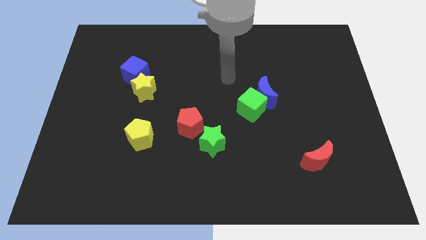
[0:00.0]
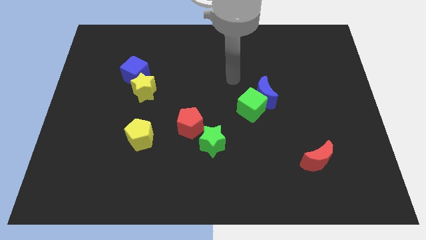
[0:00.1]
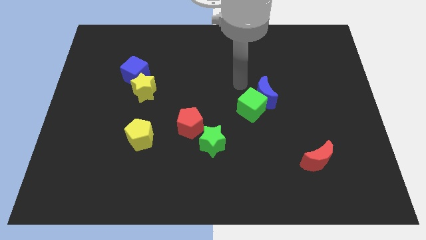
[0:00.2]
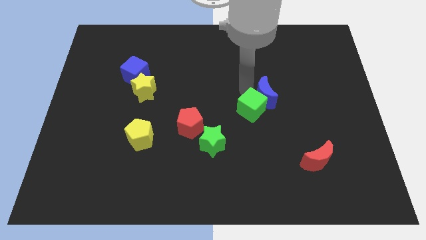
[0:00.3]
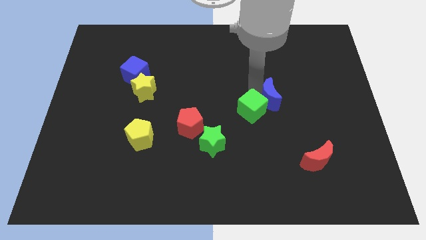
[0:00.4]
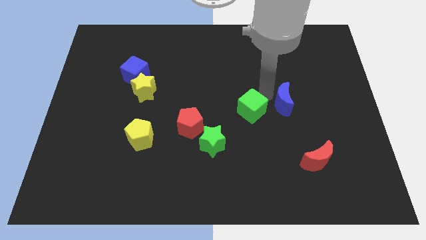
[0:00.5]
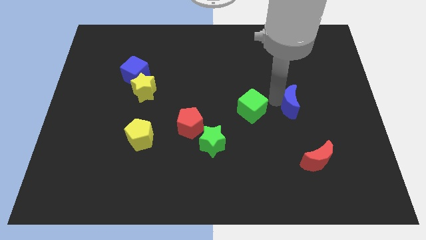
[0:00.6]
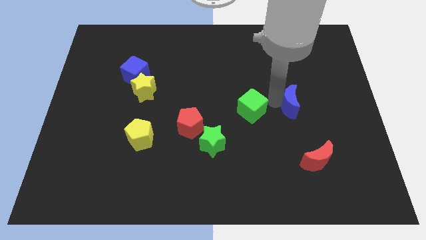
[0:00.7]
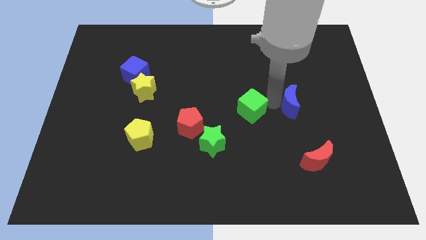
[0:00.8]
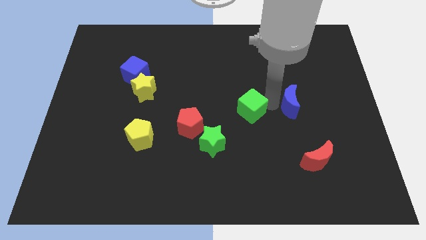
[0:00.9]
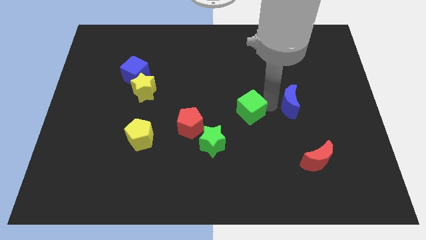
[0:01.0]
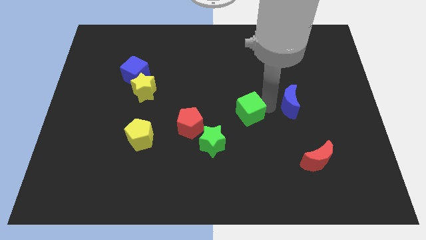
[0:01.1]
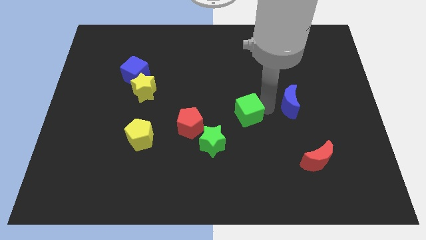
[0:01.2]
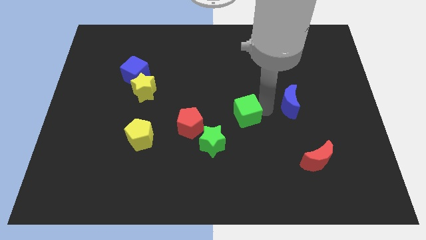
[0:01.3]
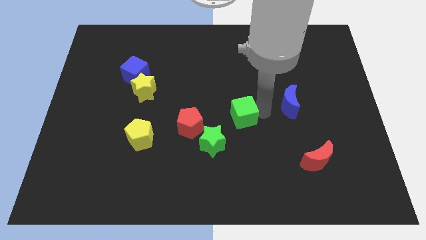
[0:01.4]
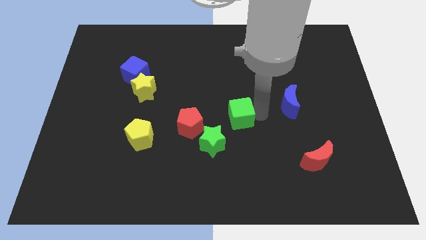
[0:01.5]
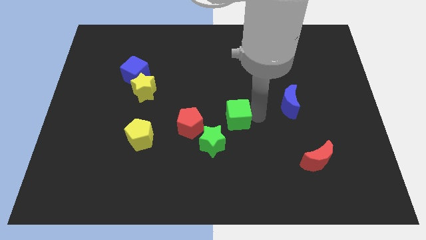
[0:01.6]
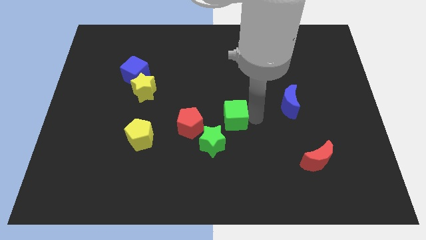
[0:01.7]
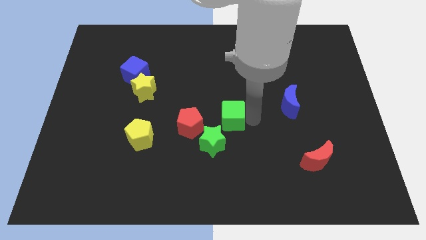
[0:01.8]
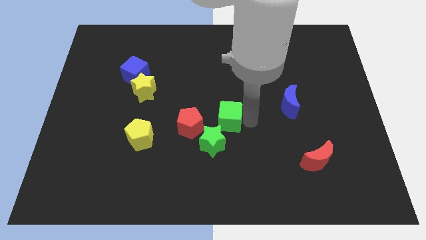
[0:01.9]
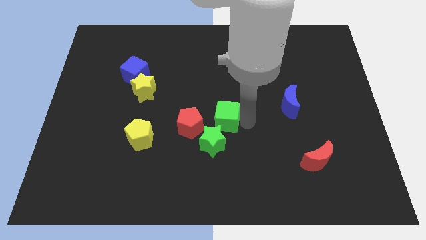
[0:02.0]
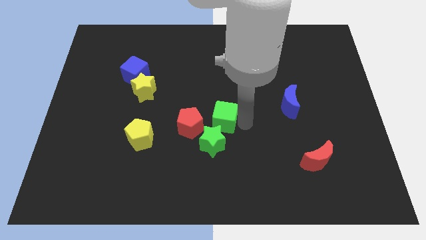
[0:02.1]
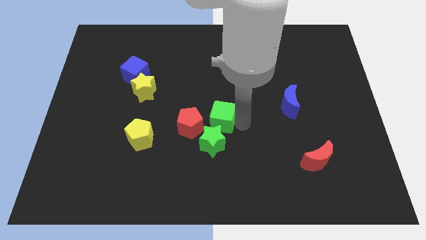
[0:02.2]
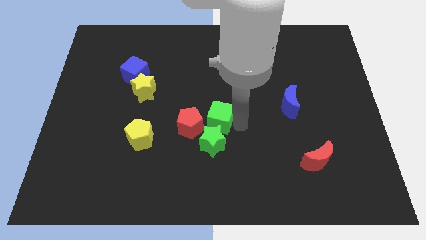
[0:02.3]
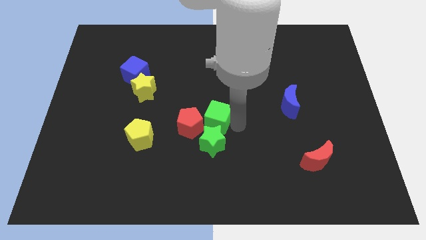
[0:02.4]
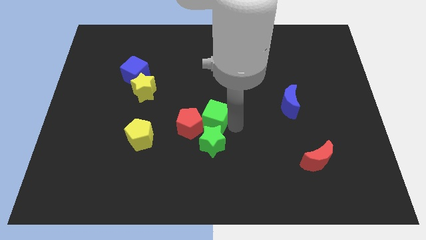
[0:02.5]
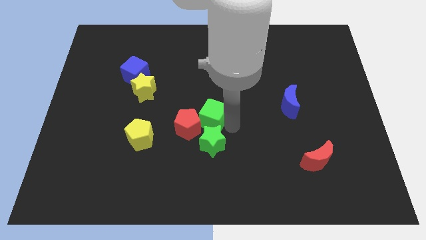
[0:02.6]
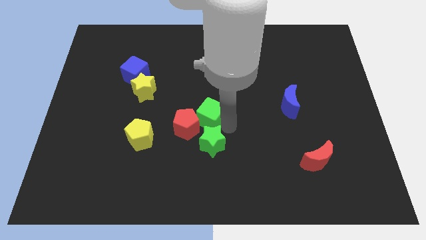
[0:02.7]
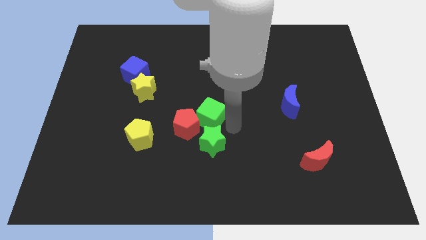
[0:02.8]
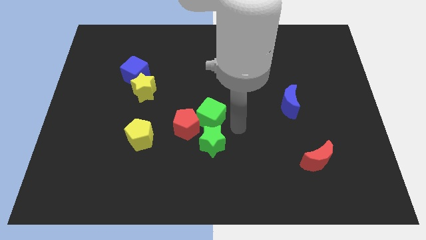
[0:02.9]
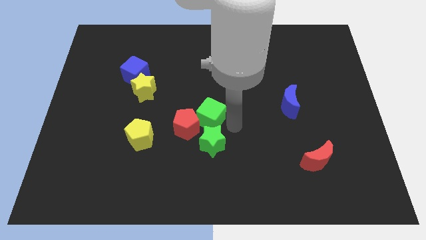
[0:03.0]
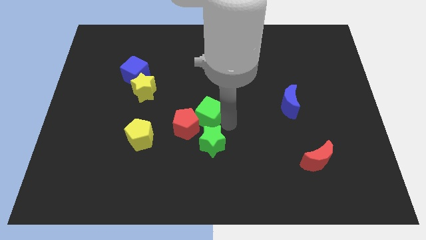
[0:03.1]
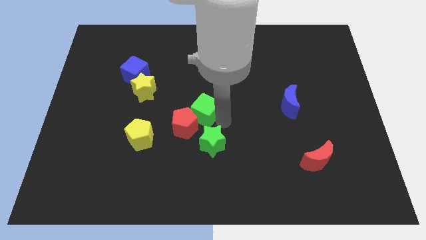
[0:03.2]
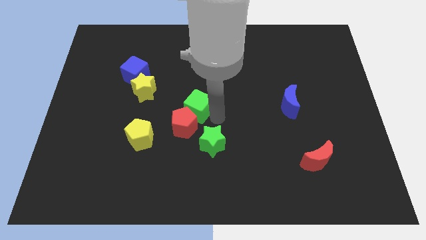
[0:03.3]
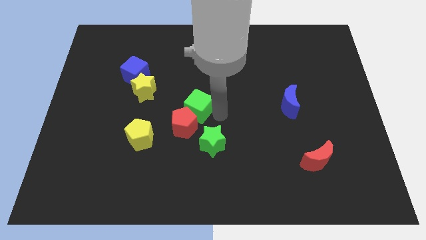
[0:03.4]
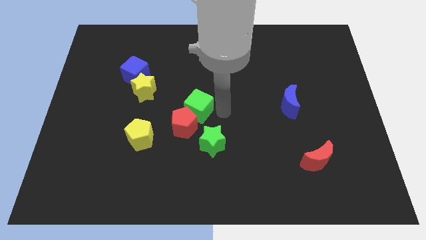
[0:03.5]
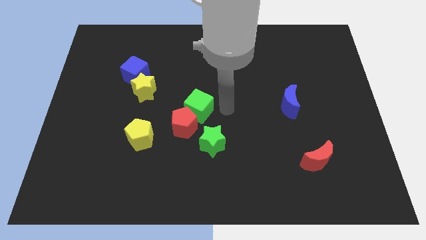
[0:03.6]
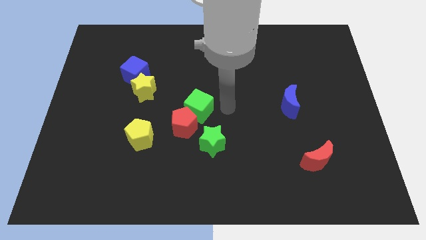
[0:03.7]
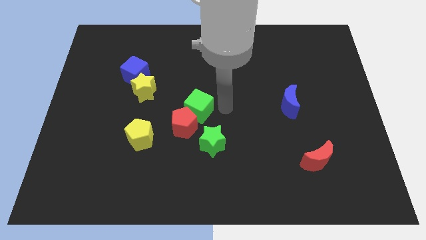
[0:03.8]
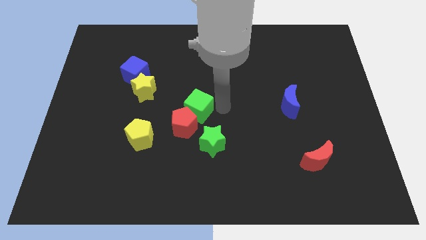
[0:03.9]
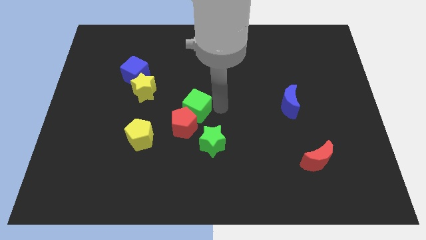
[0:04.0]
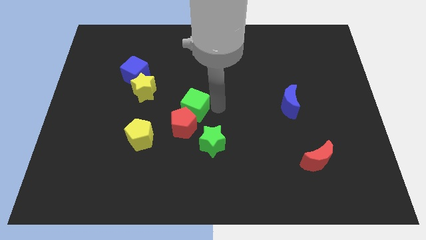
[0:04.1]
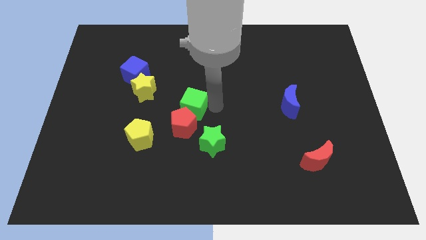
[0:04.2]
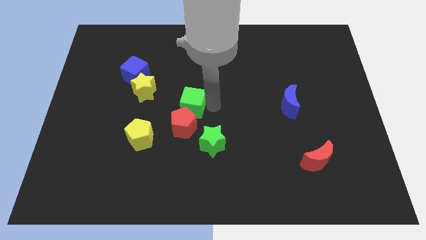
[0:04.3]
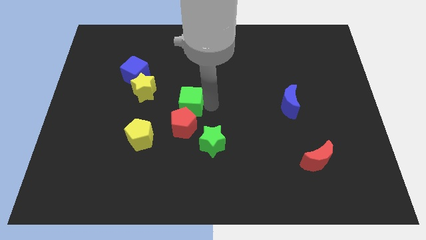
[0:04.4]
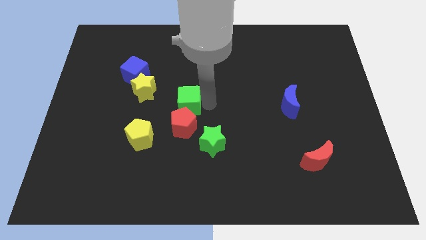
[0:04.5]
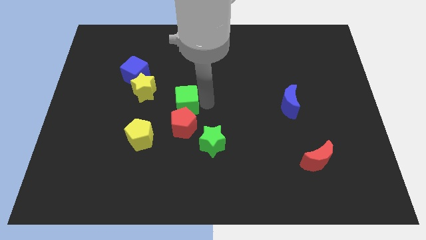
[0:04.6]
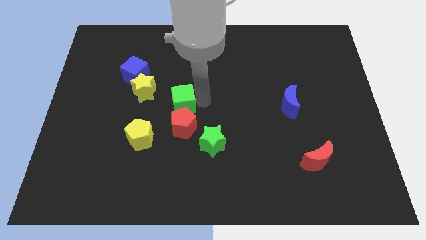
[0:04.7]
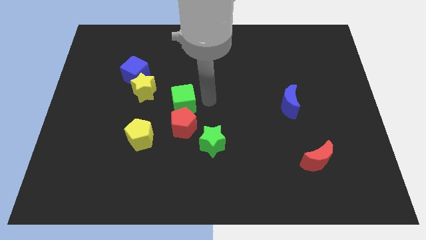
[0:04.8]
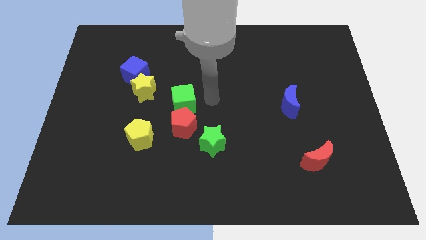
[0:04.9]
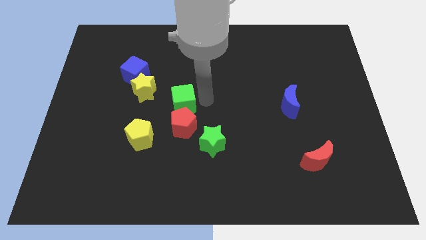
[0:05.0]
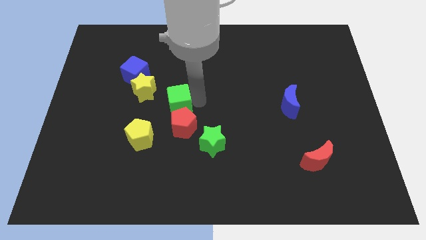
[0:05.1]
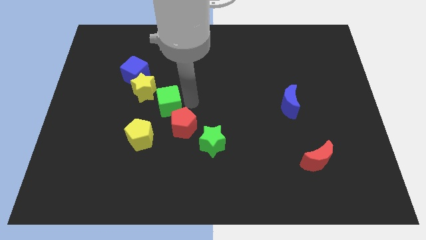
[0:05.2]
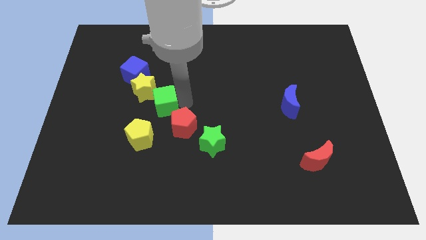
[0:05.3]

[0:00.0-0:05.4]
push the green cube left

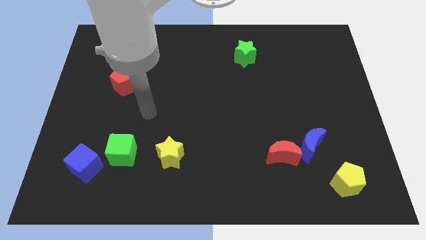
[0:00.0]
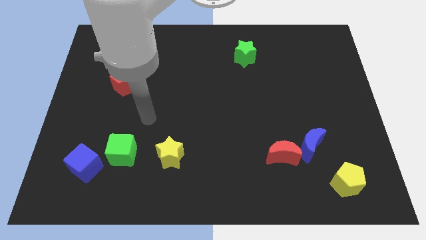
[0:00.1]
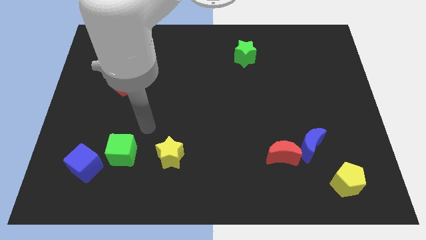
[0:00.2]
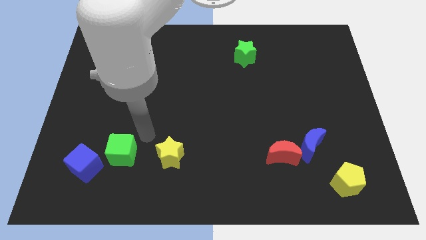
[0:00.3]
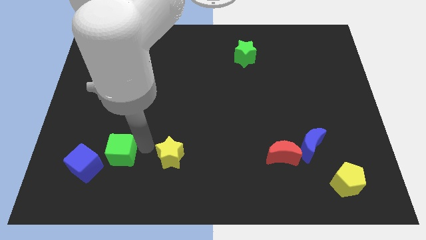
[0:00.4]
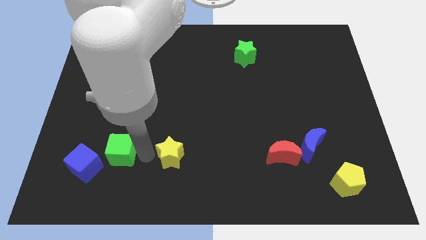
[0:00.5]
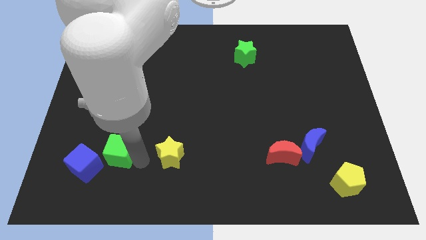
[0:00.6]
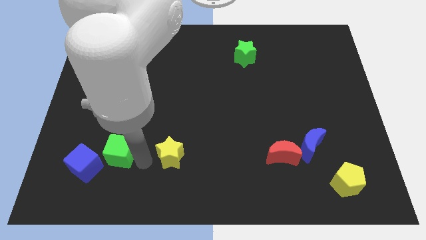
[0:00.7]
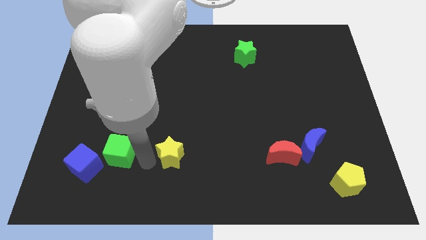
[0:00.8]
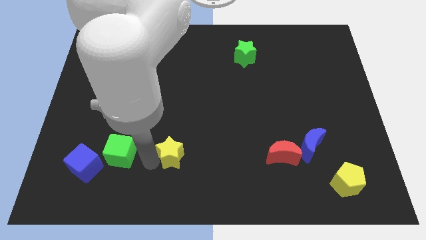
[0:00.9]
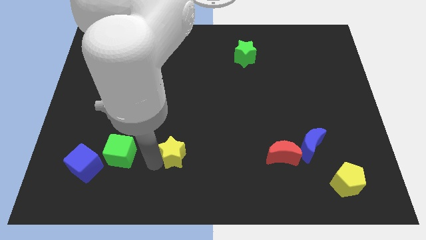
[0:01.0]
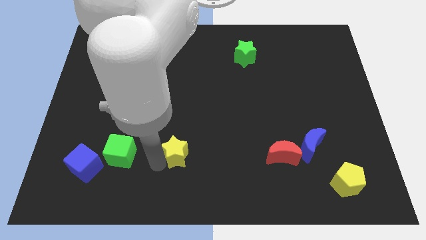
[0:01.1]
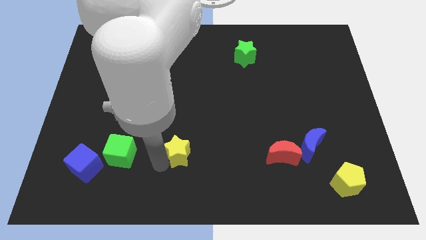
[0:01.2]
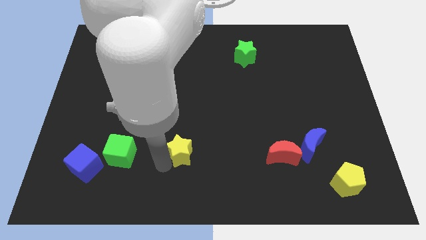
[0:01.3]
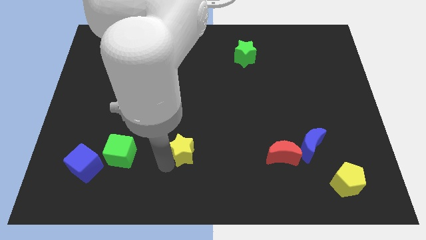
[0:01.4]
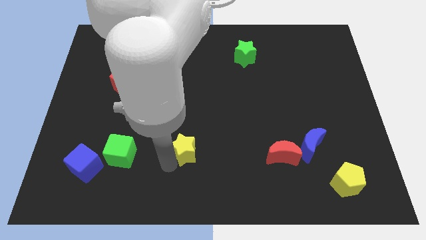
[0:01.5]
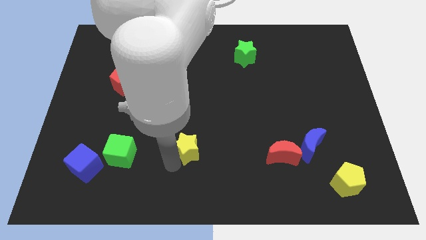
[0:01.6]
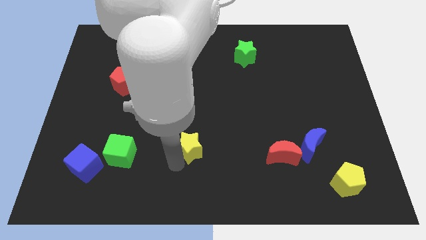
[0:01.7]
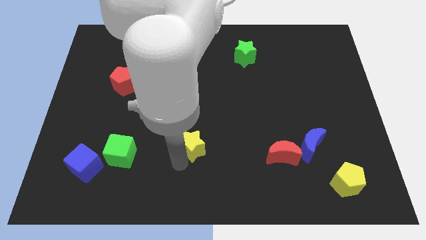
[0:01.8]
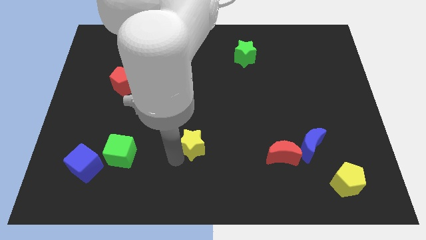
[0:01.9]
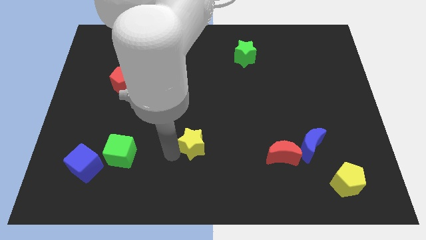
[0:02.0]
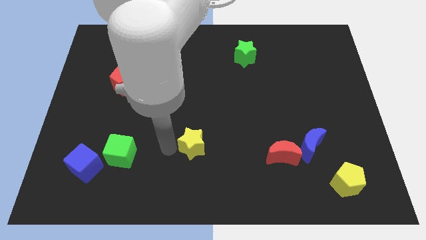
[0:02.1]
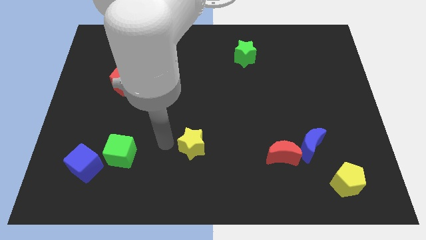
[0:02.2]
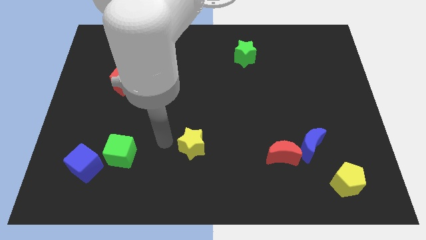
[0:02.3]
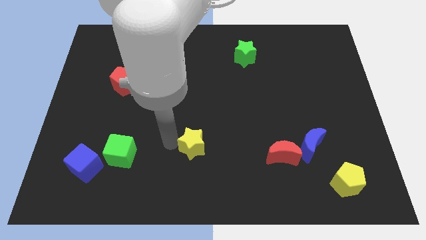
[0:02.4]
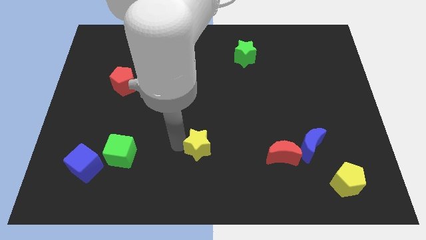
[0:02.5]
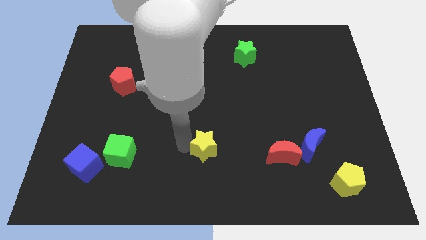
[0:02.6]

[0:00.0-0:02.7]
move the yellow star to the right somewhat

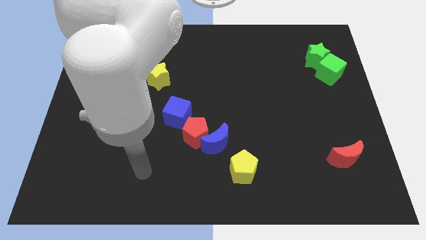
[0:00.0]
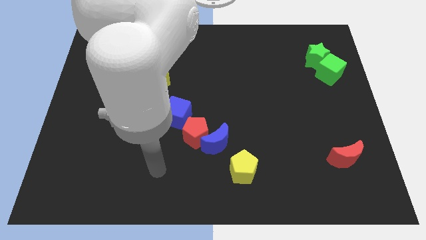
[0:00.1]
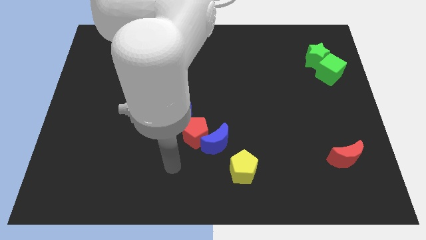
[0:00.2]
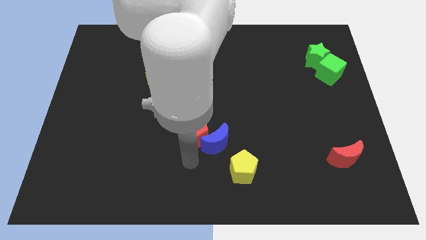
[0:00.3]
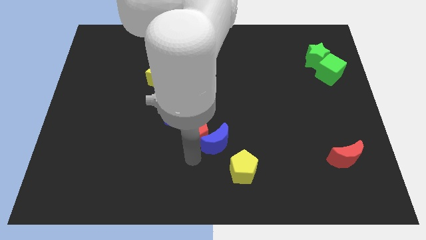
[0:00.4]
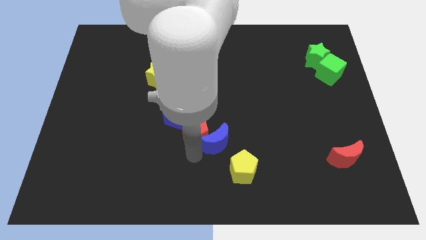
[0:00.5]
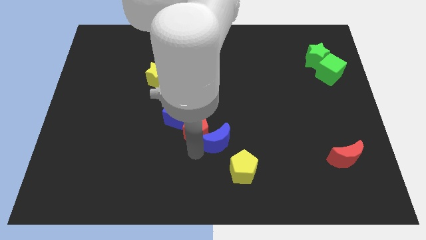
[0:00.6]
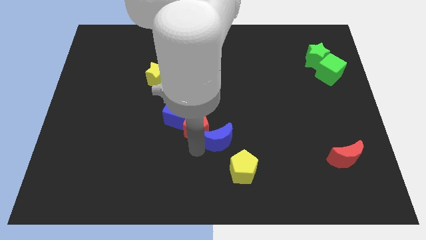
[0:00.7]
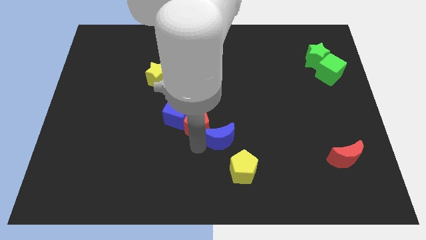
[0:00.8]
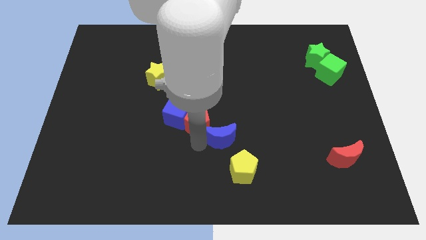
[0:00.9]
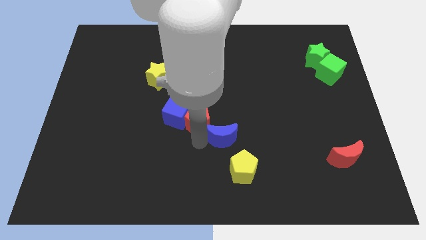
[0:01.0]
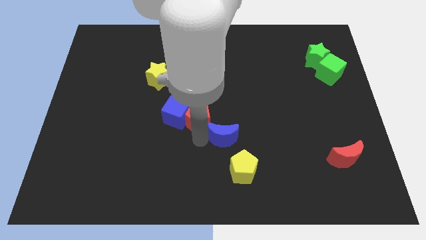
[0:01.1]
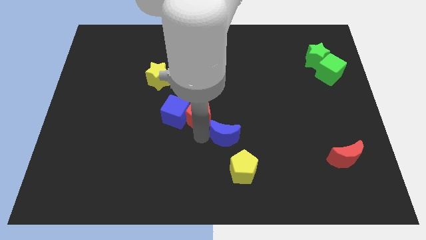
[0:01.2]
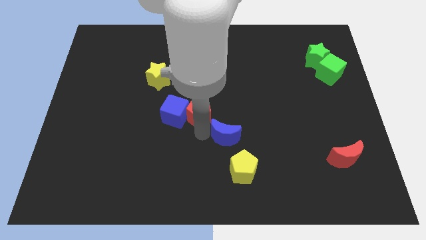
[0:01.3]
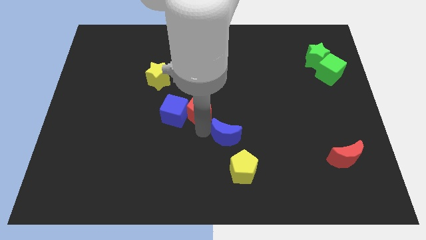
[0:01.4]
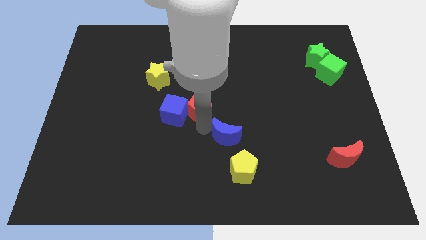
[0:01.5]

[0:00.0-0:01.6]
slightly slide the red pentagon upwards
